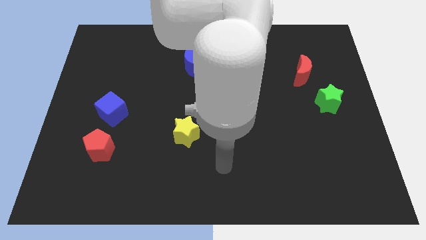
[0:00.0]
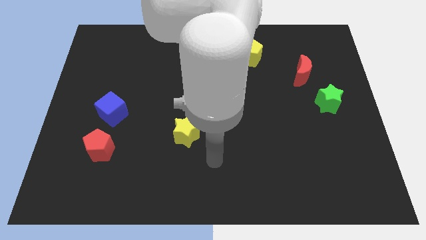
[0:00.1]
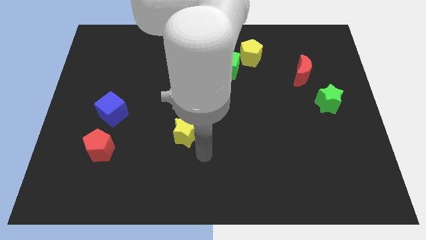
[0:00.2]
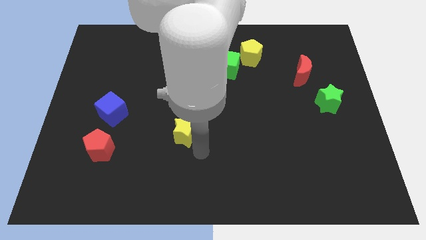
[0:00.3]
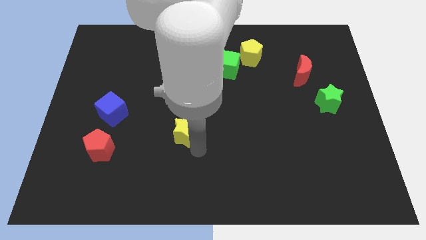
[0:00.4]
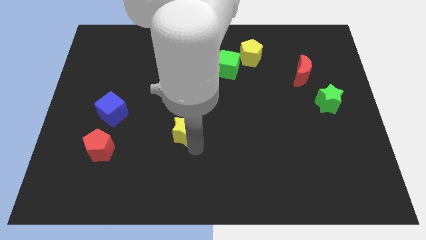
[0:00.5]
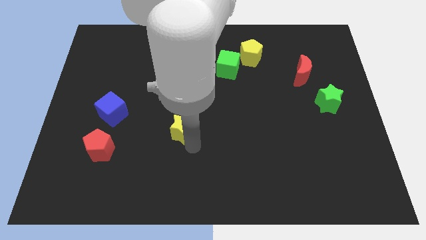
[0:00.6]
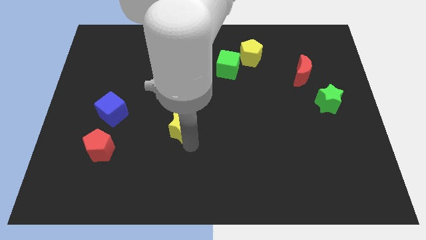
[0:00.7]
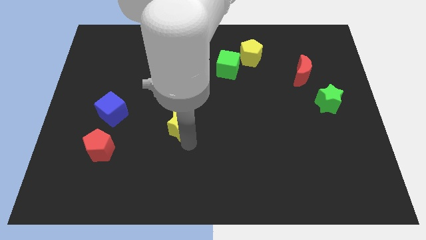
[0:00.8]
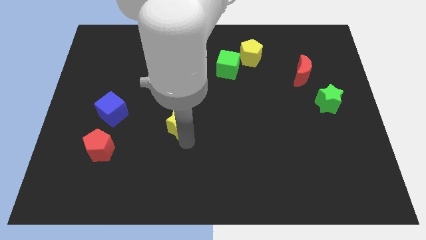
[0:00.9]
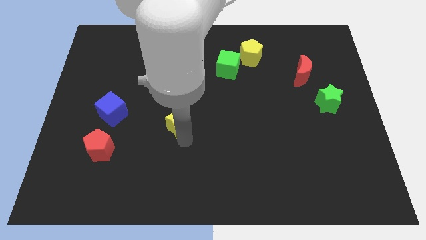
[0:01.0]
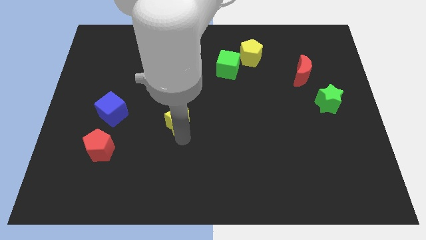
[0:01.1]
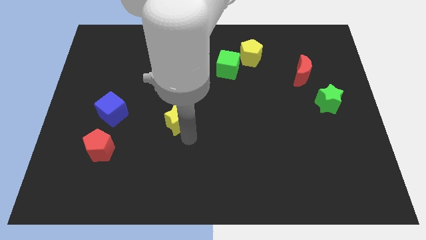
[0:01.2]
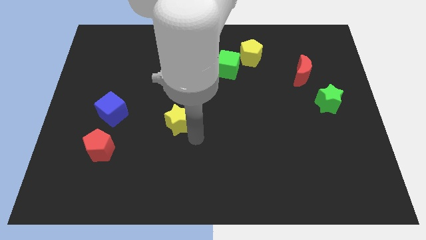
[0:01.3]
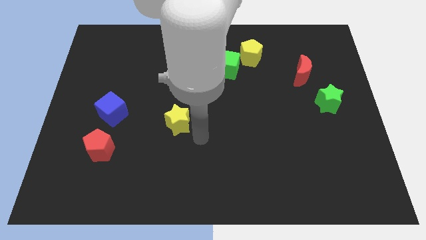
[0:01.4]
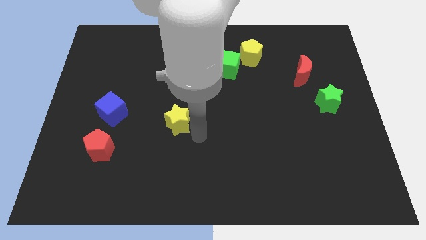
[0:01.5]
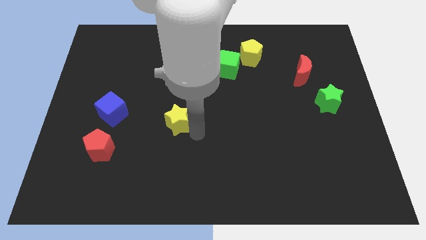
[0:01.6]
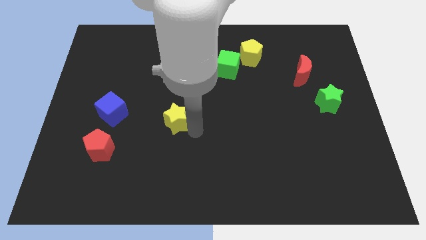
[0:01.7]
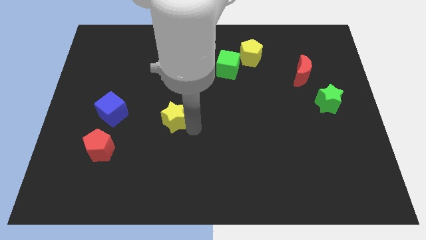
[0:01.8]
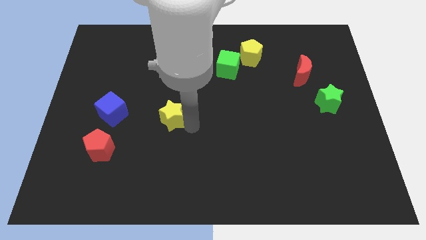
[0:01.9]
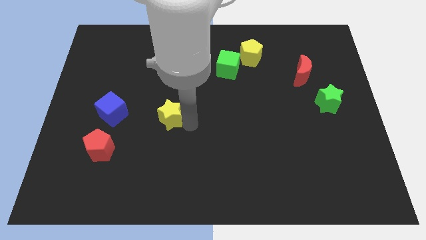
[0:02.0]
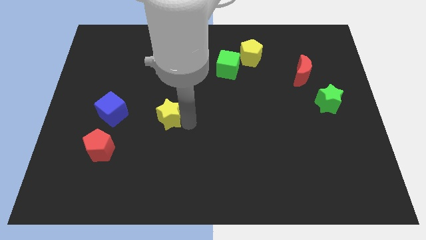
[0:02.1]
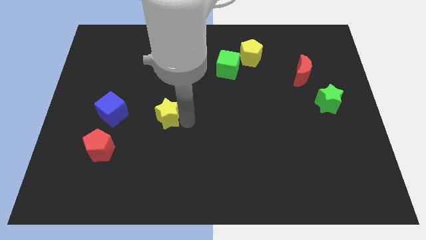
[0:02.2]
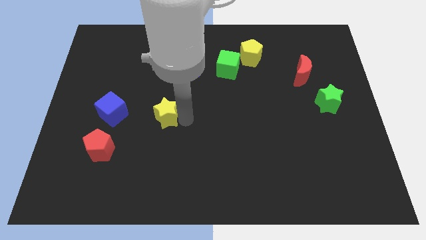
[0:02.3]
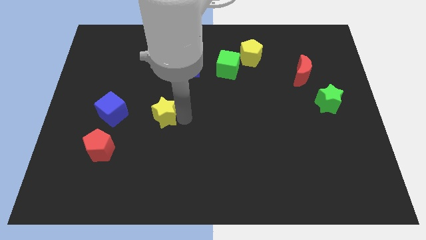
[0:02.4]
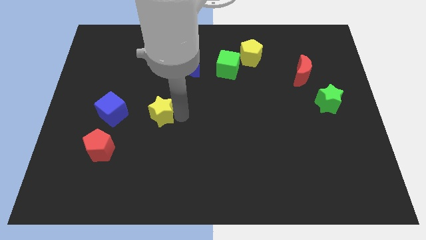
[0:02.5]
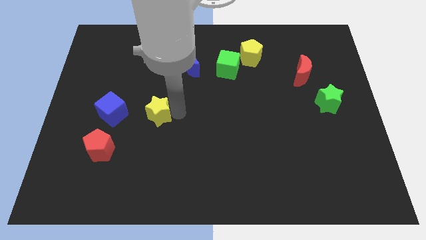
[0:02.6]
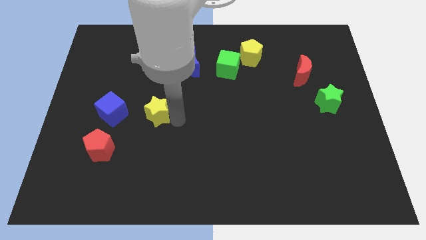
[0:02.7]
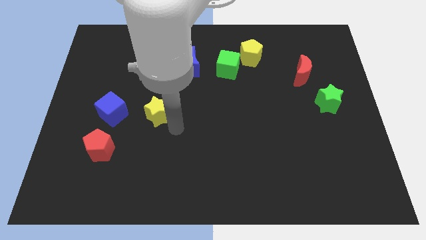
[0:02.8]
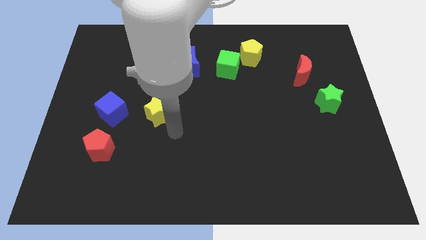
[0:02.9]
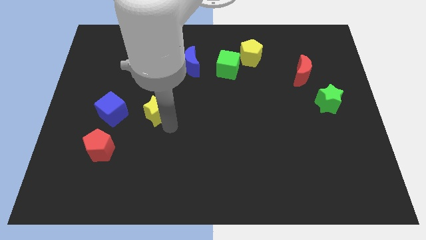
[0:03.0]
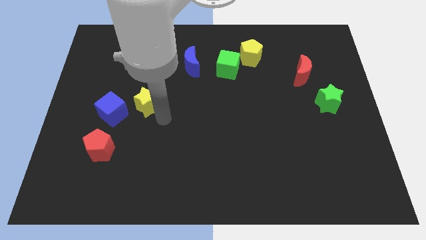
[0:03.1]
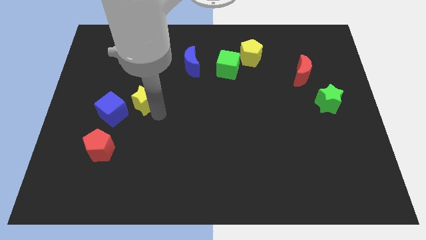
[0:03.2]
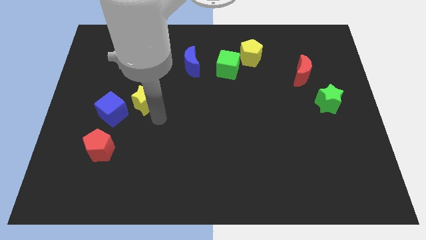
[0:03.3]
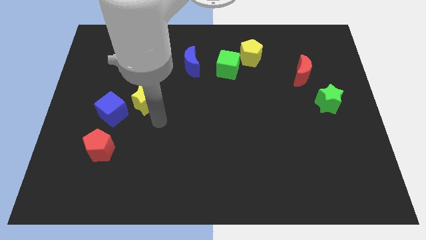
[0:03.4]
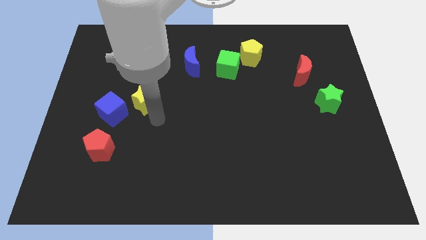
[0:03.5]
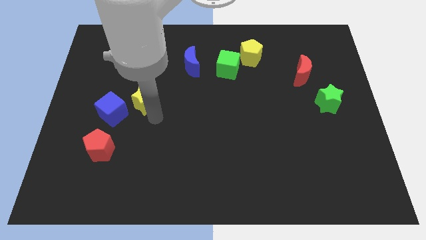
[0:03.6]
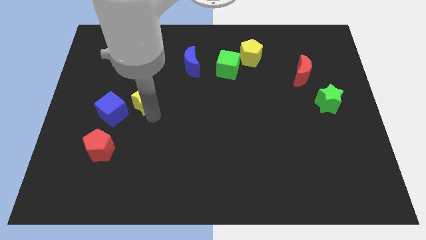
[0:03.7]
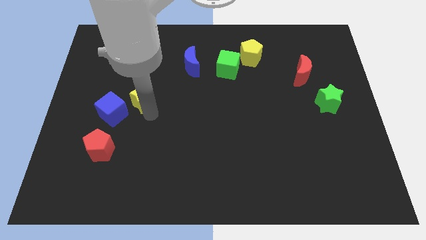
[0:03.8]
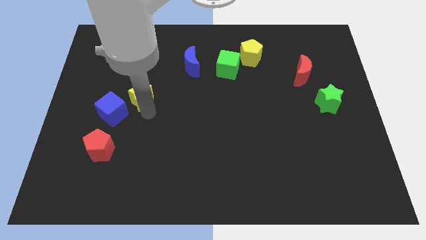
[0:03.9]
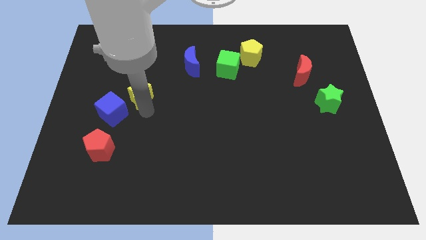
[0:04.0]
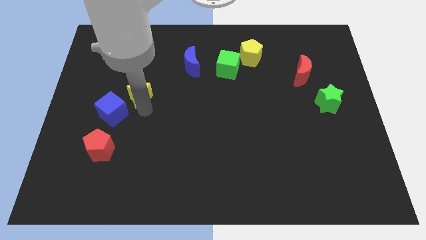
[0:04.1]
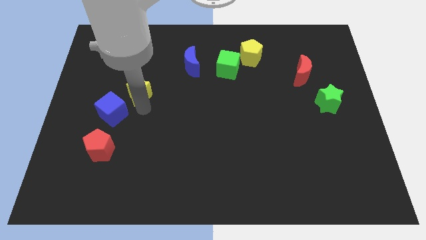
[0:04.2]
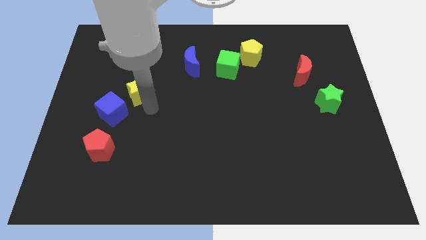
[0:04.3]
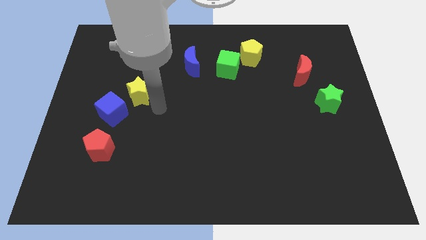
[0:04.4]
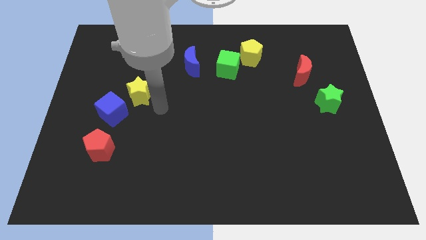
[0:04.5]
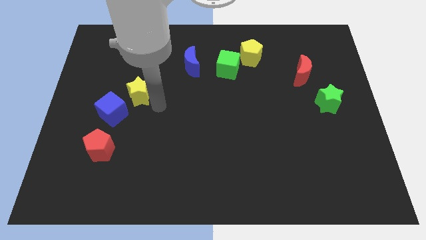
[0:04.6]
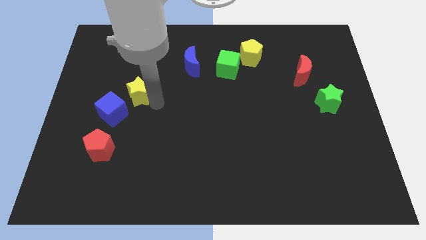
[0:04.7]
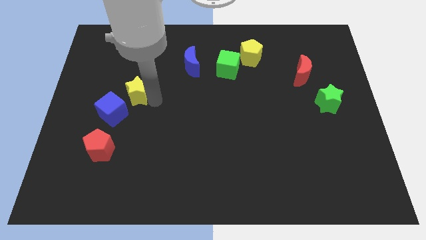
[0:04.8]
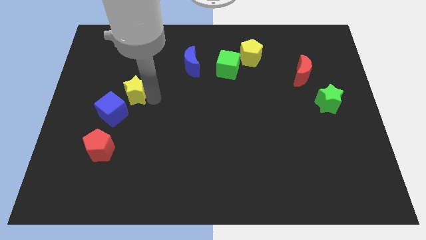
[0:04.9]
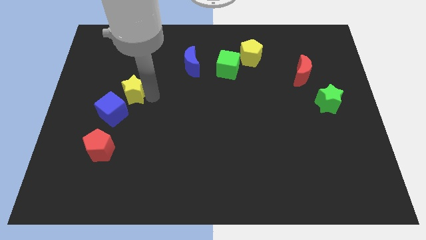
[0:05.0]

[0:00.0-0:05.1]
put the yellow star to the top of the blue cube
